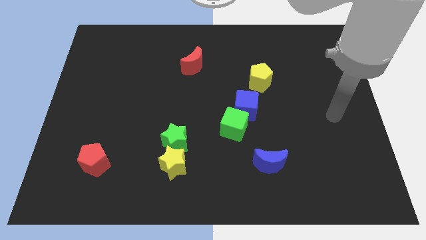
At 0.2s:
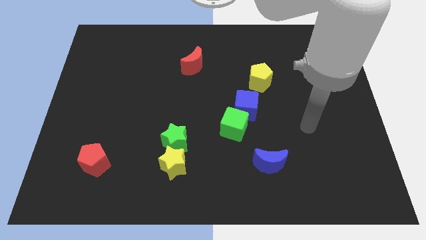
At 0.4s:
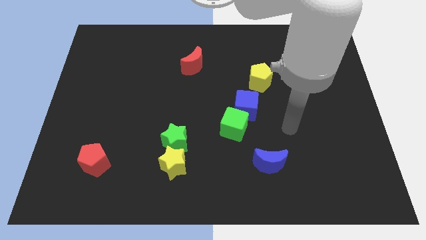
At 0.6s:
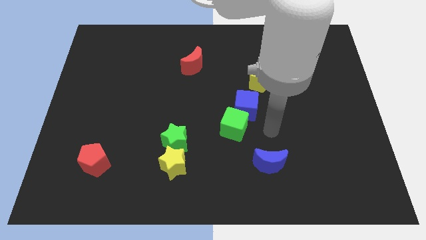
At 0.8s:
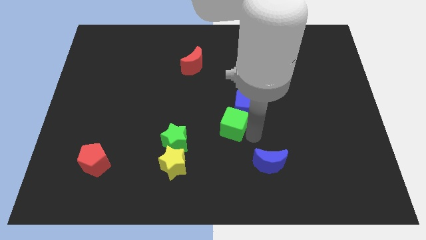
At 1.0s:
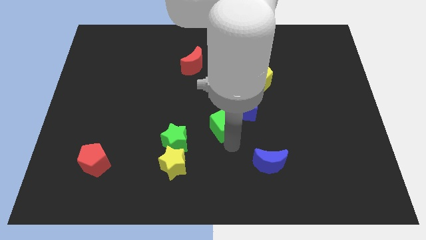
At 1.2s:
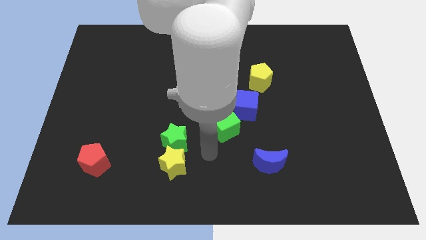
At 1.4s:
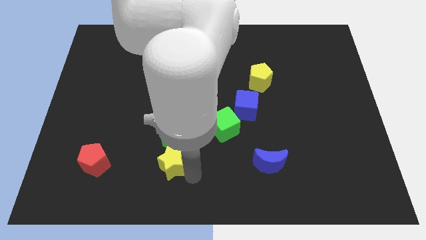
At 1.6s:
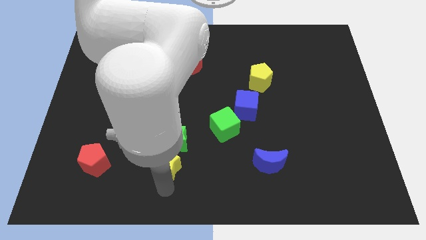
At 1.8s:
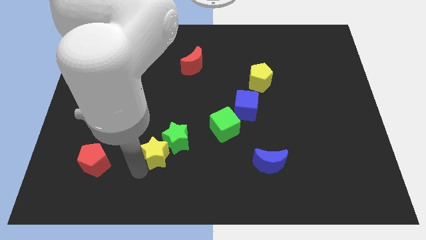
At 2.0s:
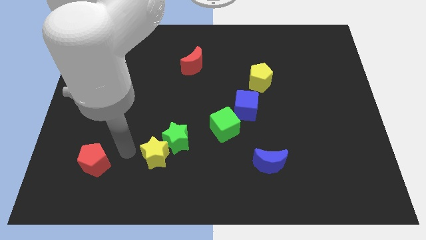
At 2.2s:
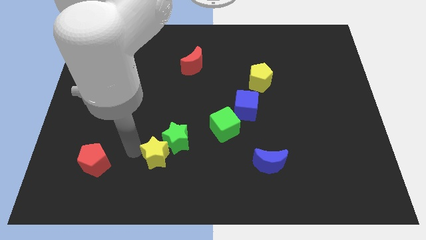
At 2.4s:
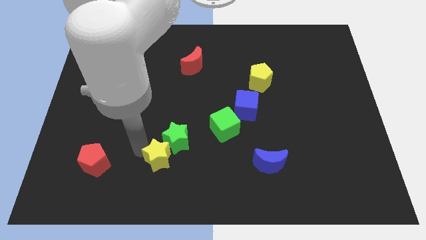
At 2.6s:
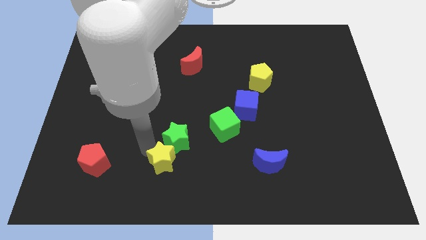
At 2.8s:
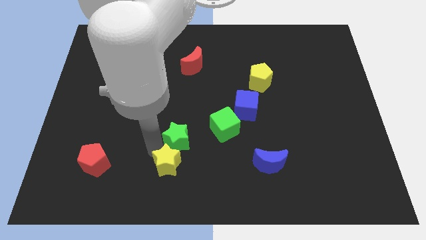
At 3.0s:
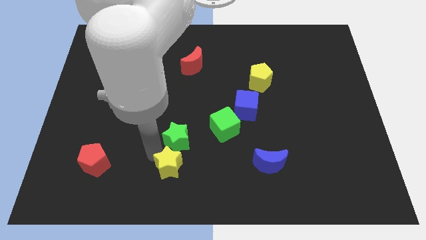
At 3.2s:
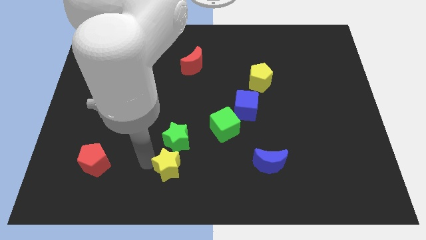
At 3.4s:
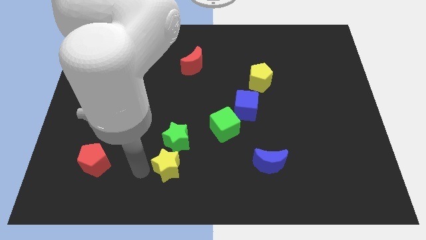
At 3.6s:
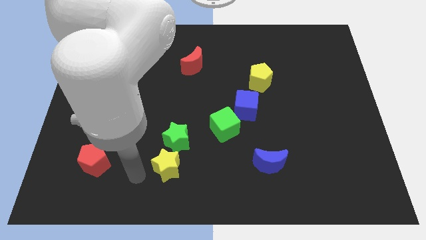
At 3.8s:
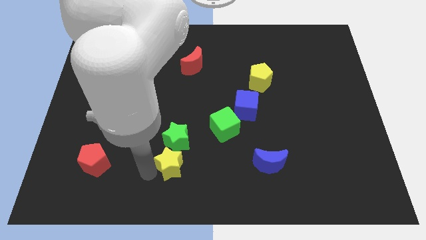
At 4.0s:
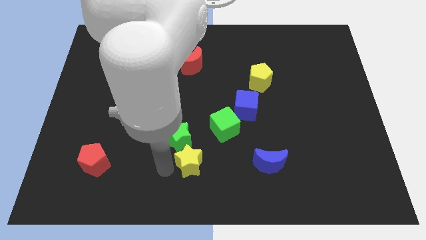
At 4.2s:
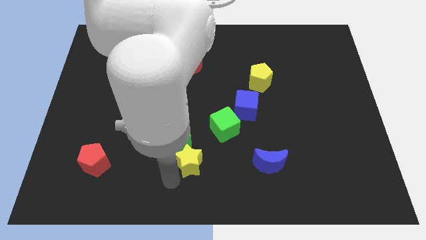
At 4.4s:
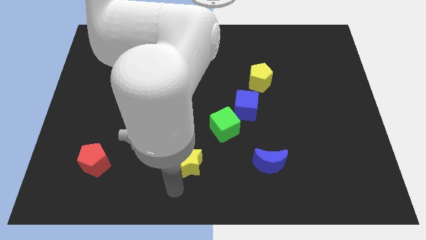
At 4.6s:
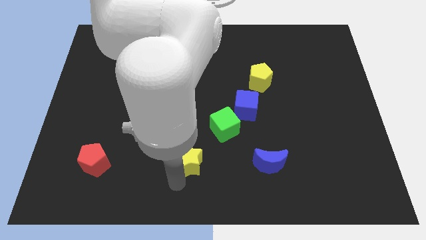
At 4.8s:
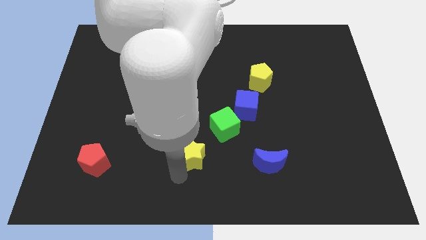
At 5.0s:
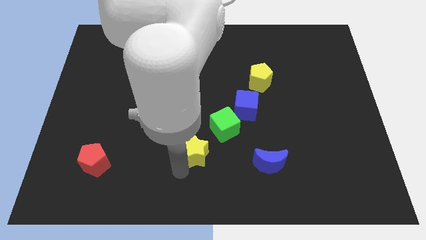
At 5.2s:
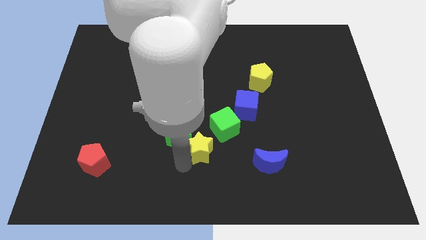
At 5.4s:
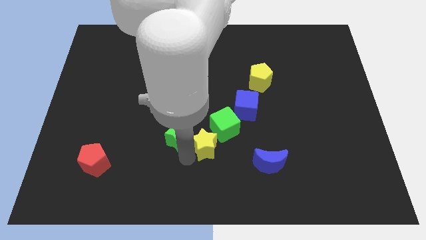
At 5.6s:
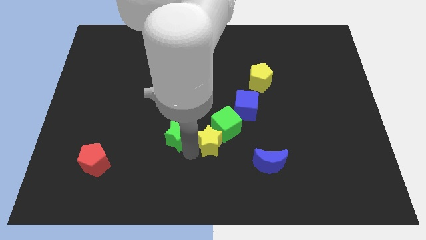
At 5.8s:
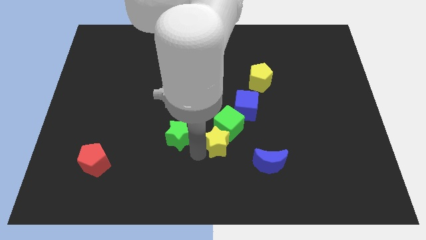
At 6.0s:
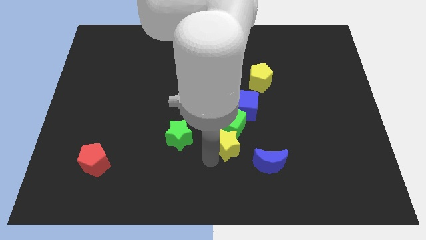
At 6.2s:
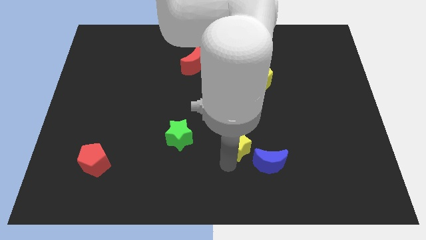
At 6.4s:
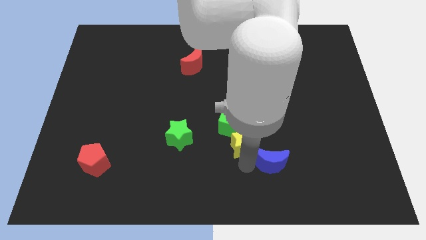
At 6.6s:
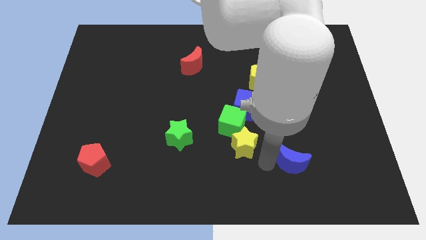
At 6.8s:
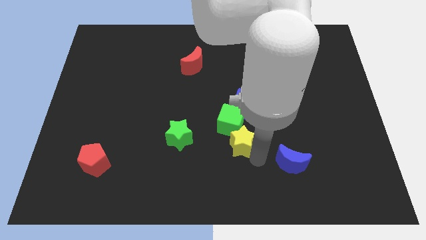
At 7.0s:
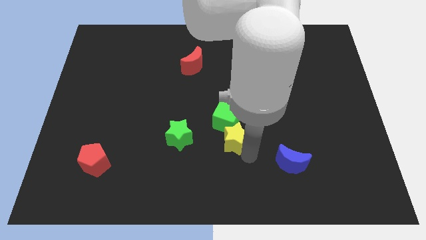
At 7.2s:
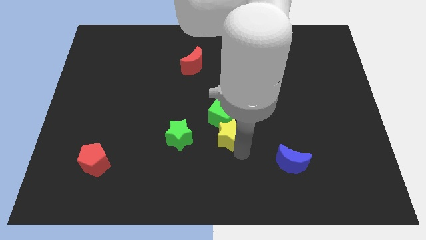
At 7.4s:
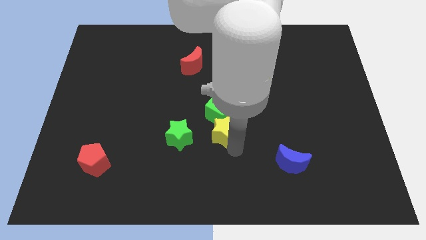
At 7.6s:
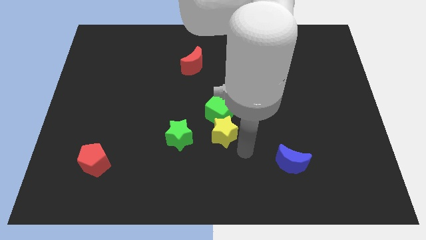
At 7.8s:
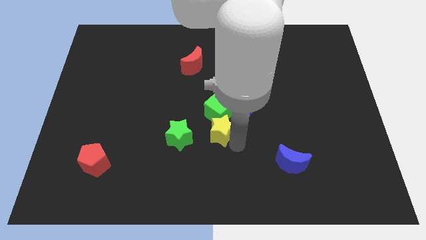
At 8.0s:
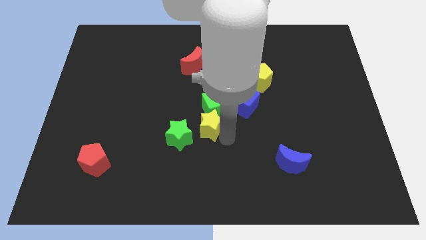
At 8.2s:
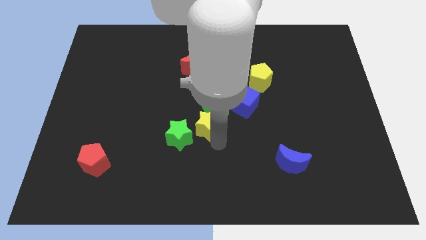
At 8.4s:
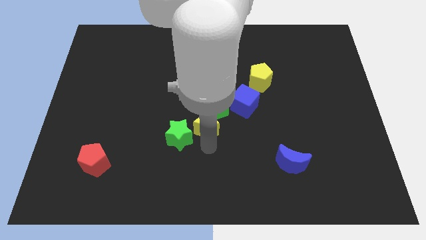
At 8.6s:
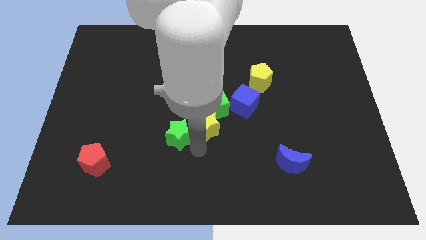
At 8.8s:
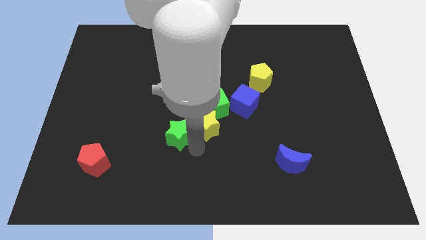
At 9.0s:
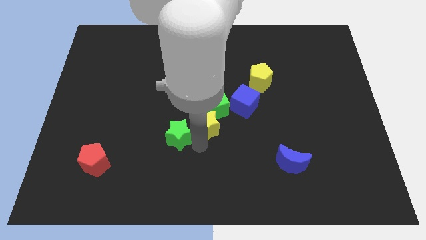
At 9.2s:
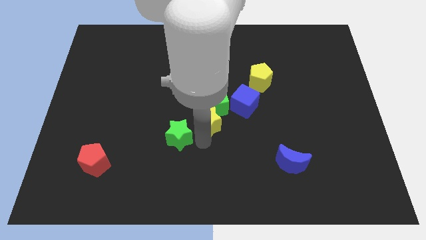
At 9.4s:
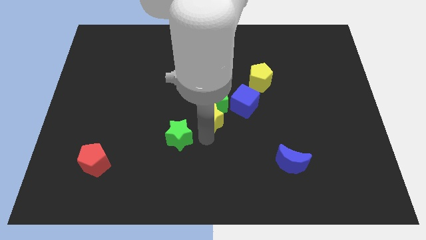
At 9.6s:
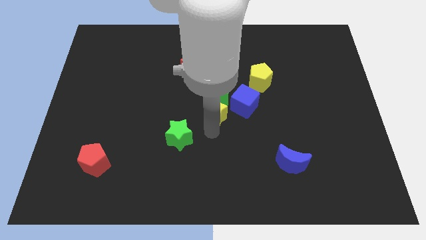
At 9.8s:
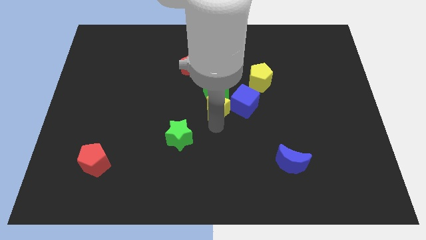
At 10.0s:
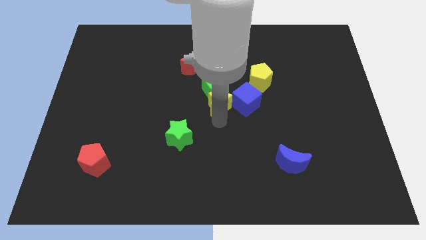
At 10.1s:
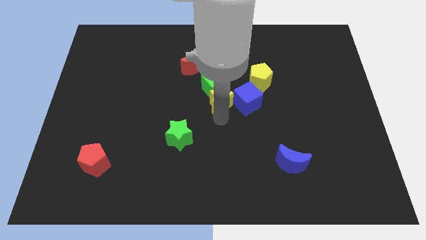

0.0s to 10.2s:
put the yellow star to the top left side of the blue cube

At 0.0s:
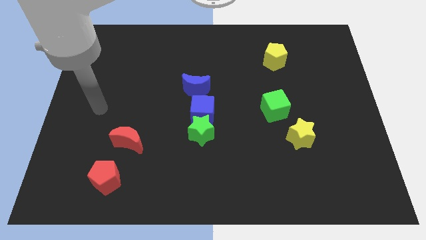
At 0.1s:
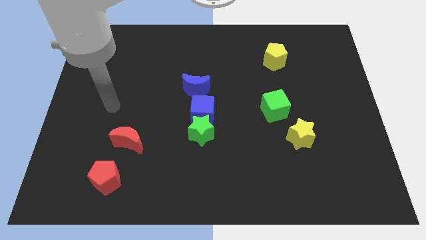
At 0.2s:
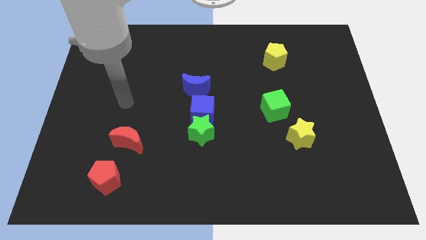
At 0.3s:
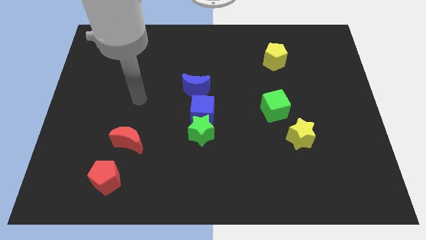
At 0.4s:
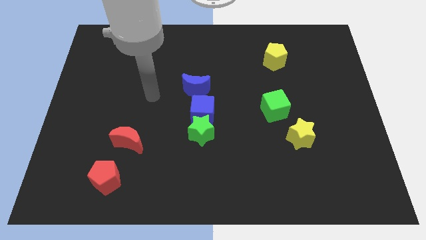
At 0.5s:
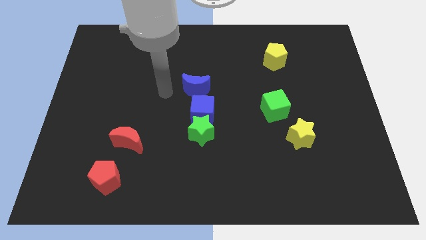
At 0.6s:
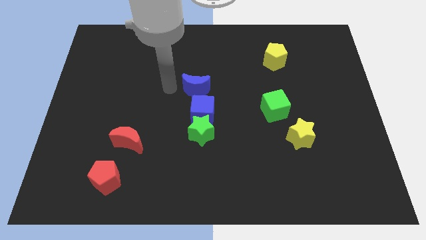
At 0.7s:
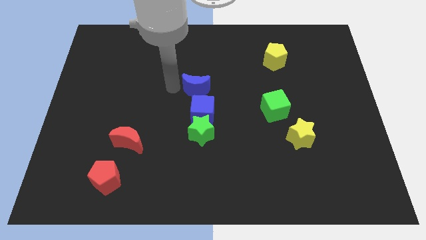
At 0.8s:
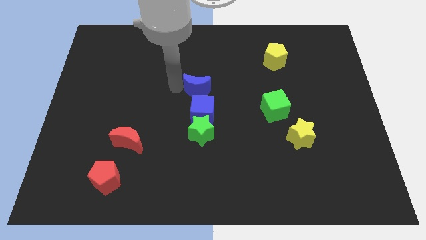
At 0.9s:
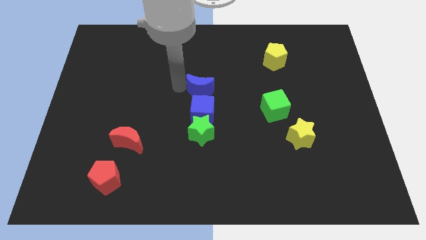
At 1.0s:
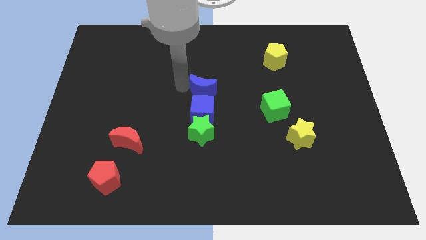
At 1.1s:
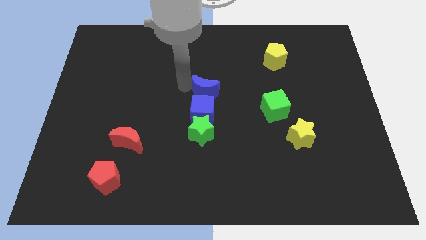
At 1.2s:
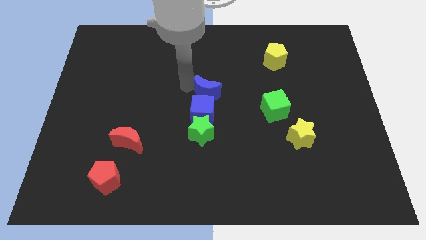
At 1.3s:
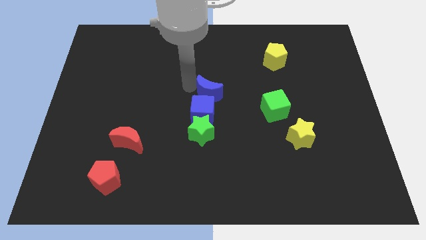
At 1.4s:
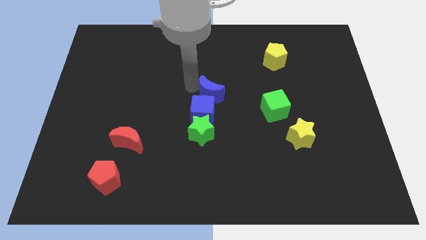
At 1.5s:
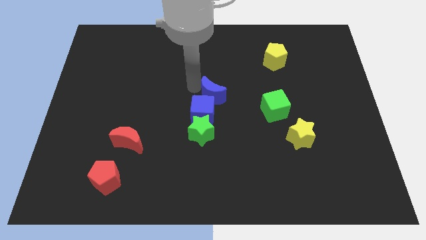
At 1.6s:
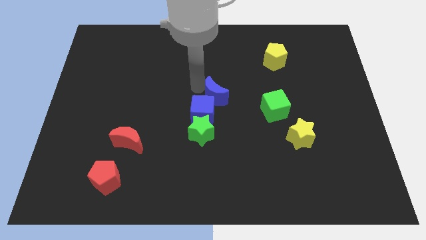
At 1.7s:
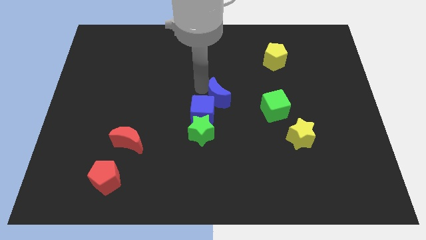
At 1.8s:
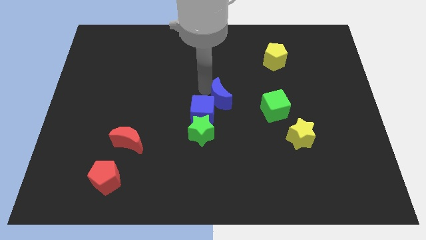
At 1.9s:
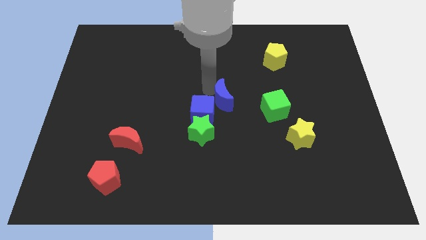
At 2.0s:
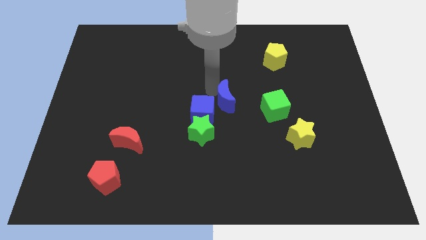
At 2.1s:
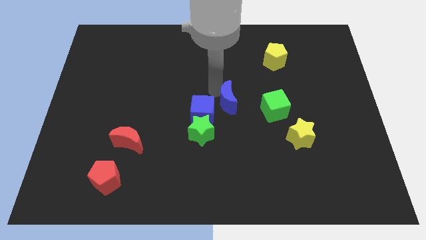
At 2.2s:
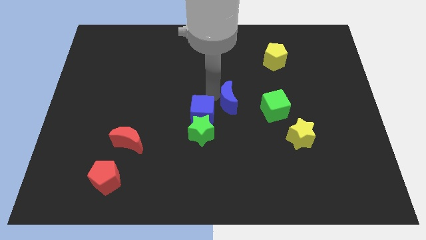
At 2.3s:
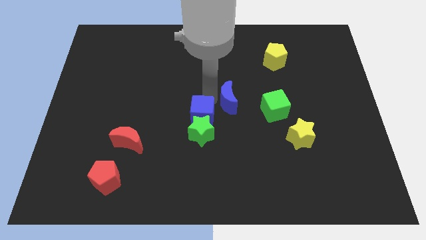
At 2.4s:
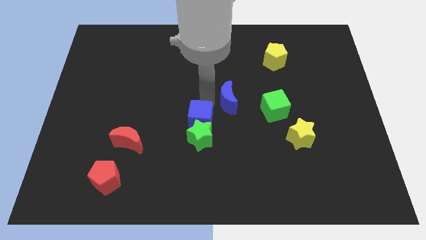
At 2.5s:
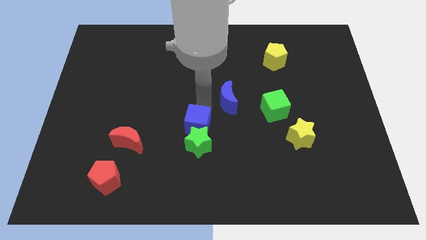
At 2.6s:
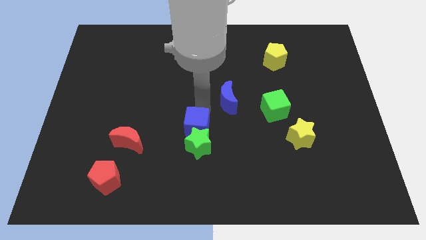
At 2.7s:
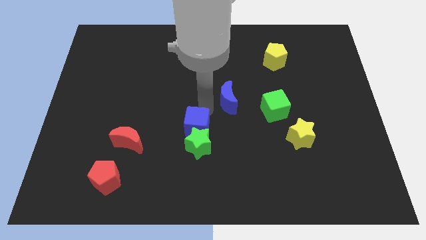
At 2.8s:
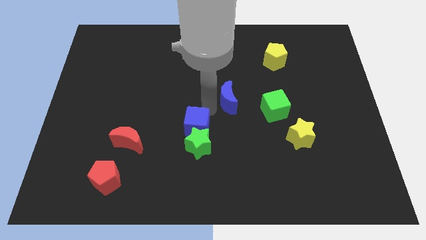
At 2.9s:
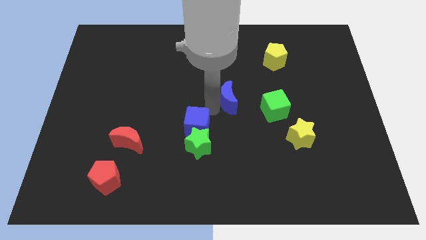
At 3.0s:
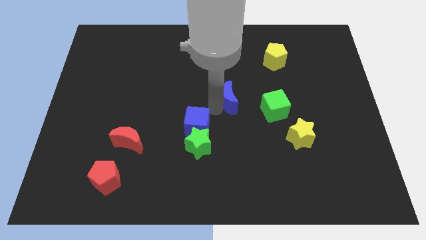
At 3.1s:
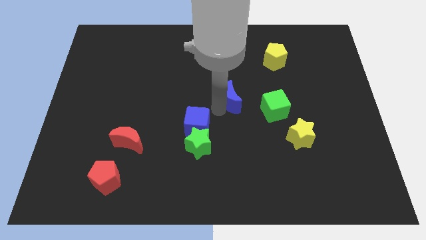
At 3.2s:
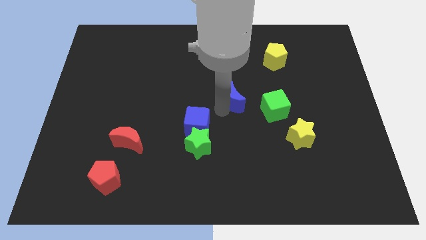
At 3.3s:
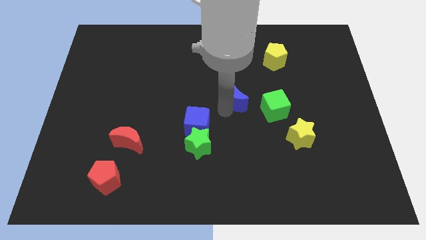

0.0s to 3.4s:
put the blue moon to the top left of the green cube
